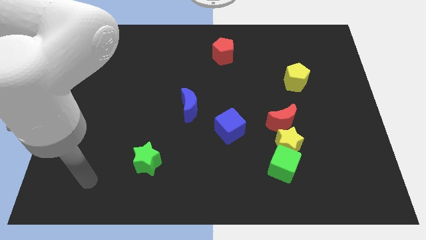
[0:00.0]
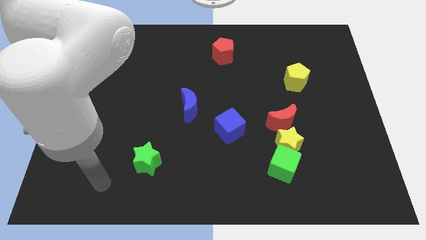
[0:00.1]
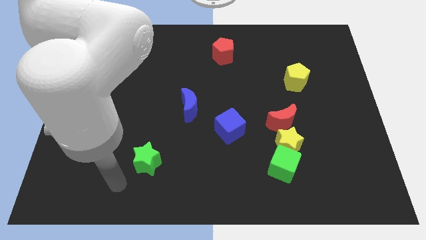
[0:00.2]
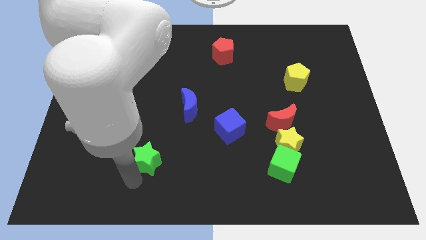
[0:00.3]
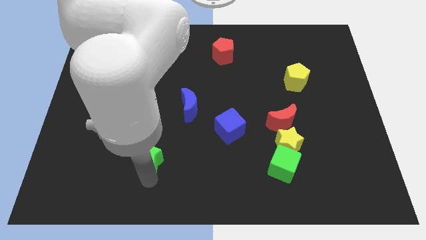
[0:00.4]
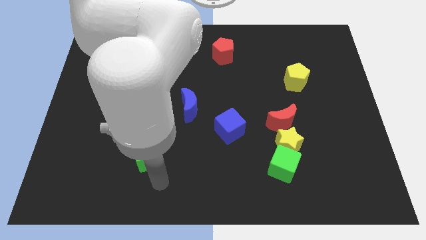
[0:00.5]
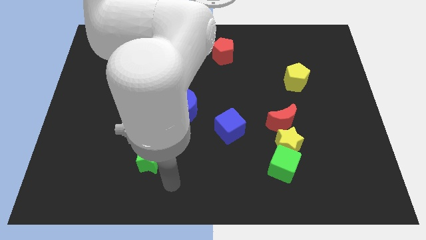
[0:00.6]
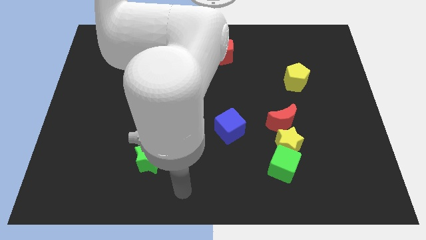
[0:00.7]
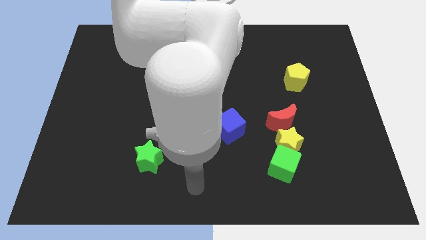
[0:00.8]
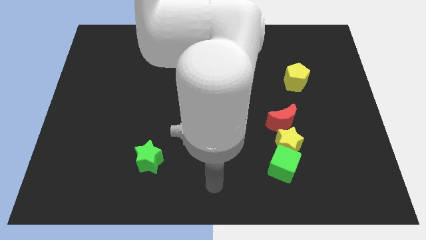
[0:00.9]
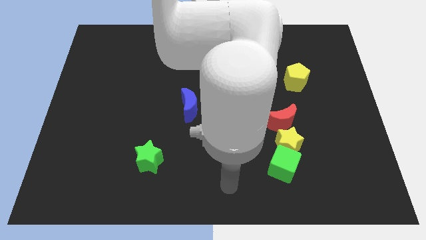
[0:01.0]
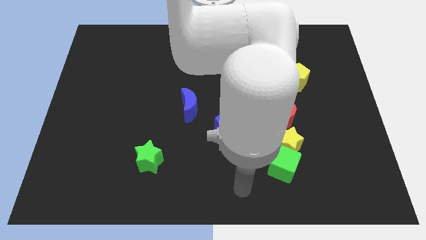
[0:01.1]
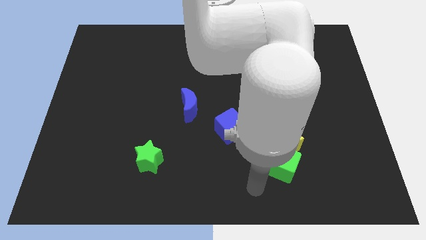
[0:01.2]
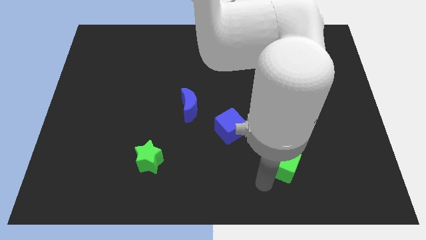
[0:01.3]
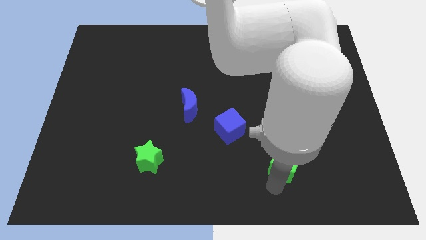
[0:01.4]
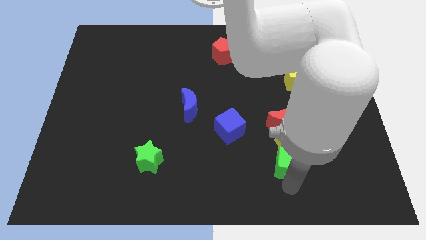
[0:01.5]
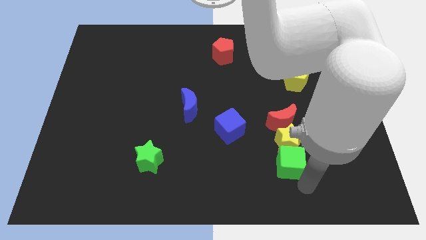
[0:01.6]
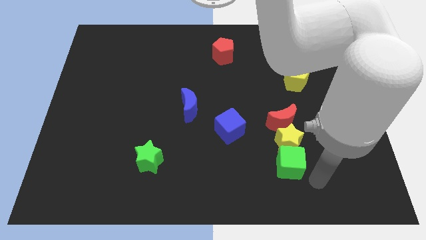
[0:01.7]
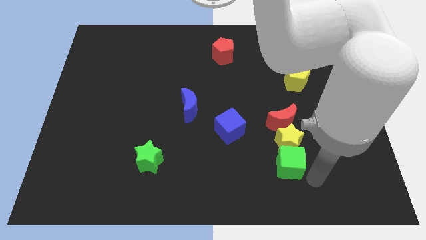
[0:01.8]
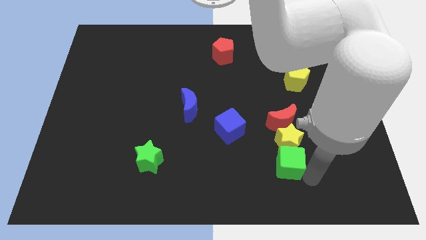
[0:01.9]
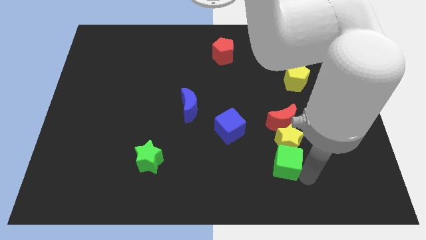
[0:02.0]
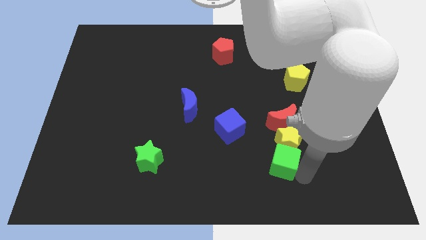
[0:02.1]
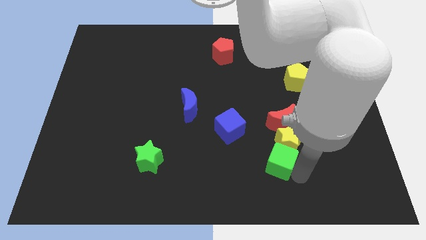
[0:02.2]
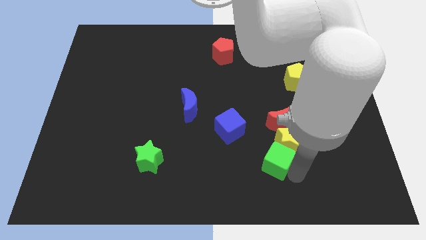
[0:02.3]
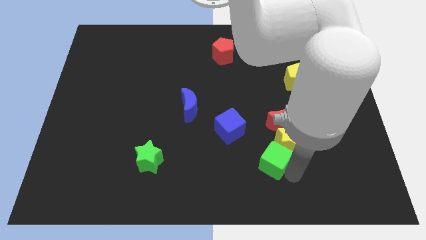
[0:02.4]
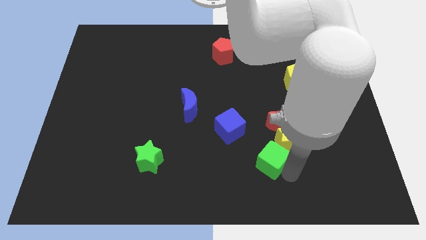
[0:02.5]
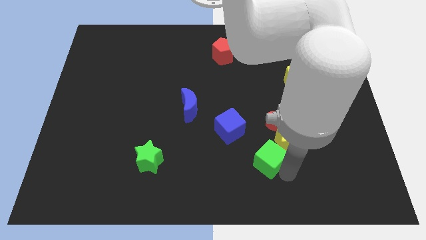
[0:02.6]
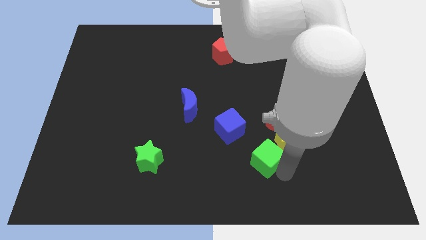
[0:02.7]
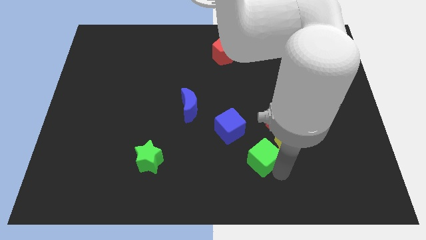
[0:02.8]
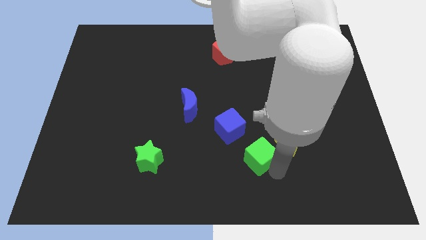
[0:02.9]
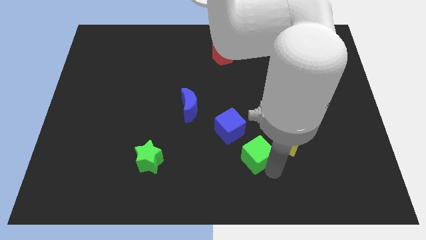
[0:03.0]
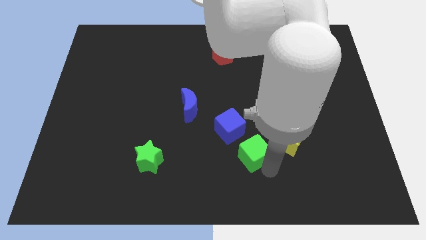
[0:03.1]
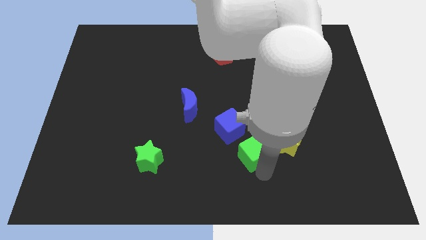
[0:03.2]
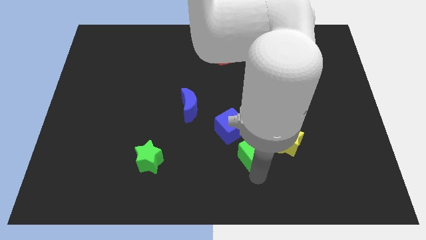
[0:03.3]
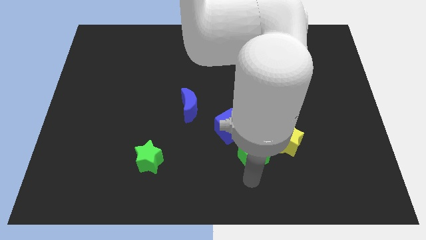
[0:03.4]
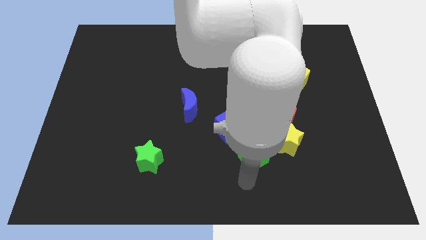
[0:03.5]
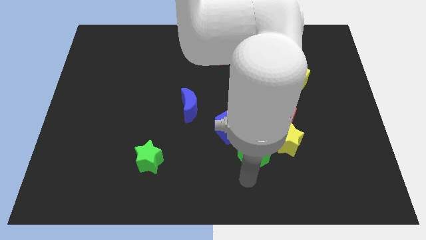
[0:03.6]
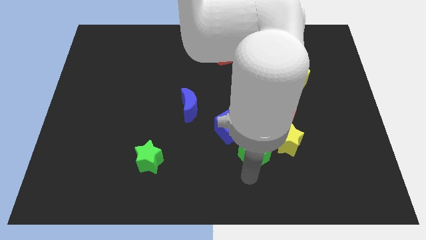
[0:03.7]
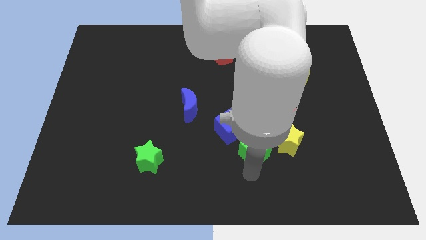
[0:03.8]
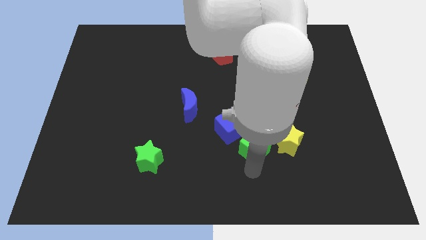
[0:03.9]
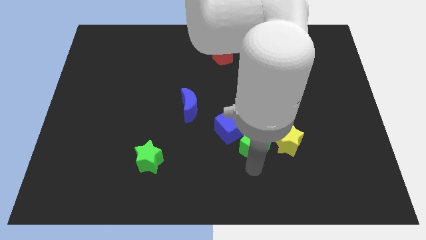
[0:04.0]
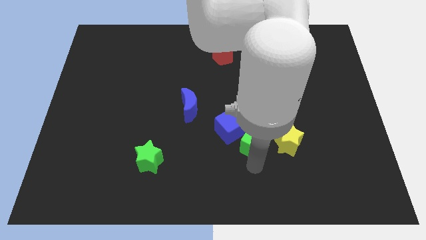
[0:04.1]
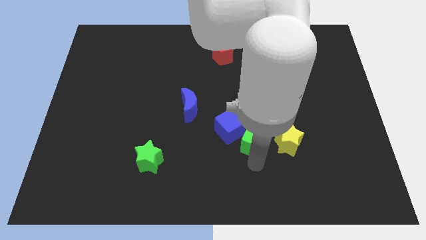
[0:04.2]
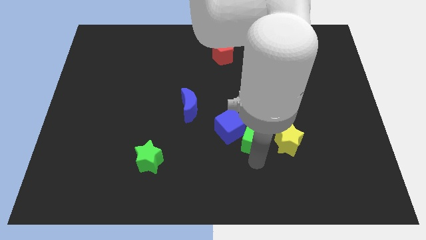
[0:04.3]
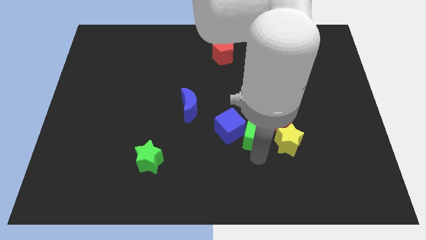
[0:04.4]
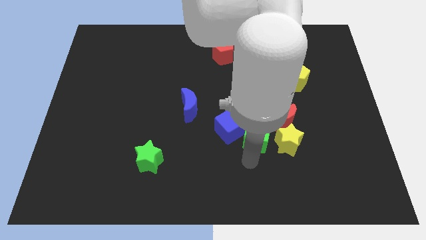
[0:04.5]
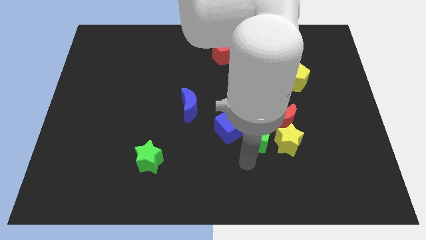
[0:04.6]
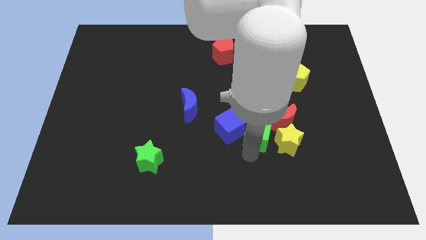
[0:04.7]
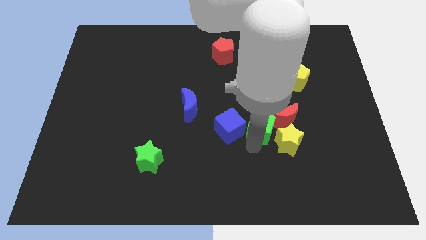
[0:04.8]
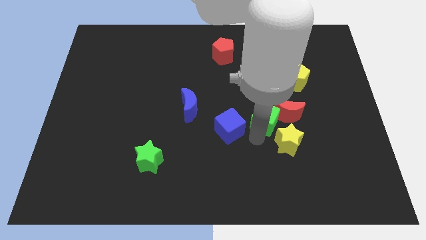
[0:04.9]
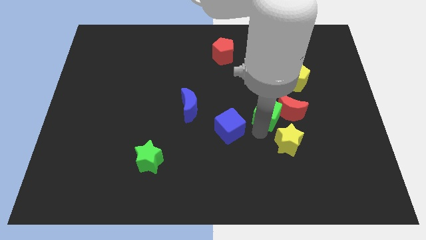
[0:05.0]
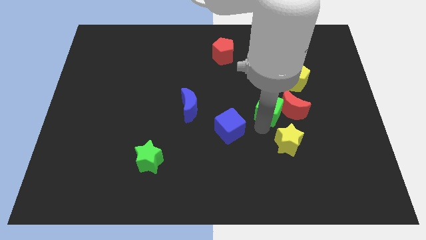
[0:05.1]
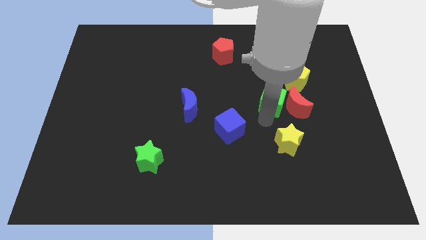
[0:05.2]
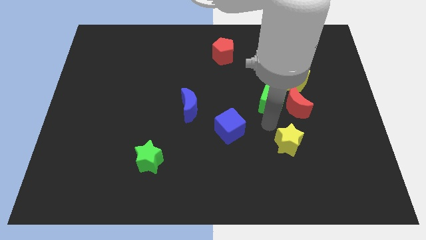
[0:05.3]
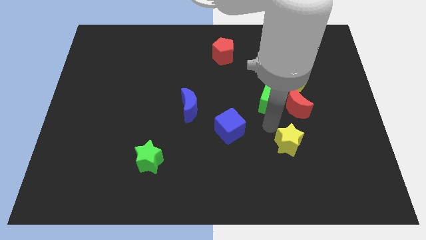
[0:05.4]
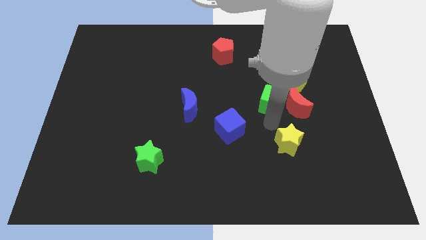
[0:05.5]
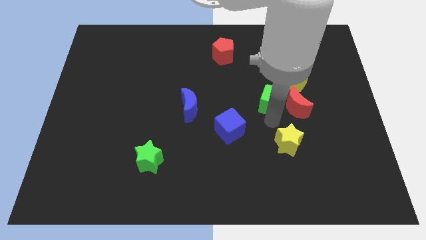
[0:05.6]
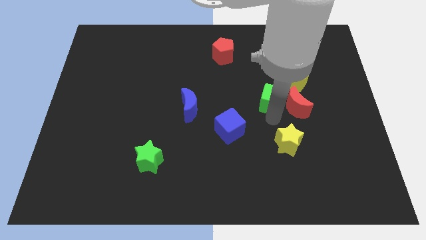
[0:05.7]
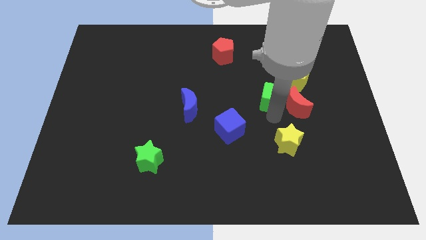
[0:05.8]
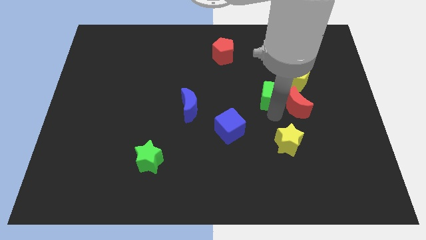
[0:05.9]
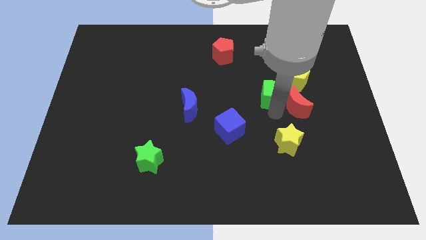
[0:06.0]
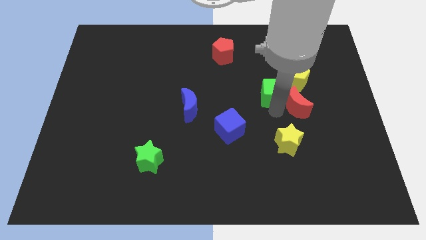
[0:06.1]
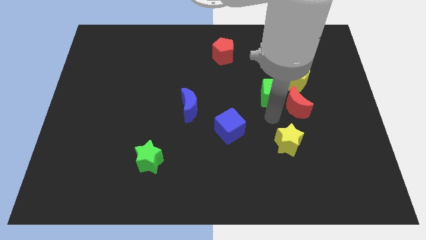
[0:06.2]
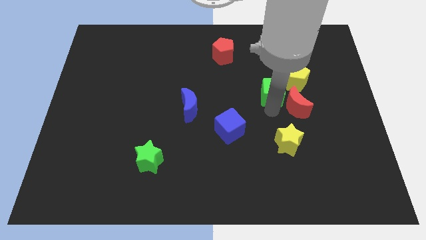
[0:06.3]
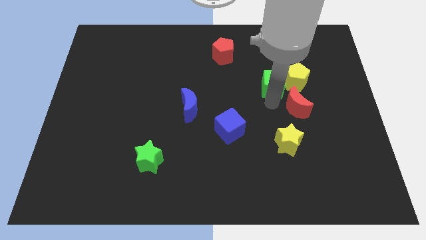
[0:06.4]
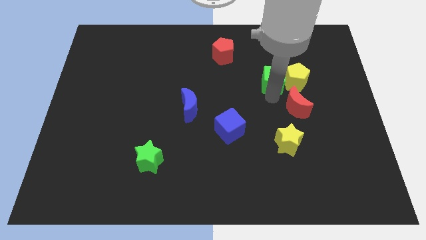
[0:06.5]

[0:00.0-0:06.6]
move the green cube to the top left side of the yellow pentagon
